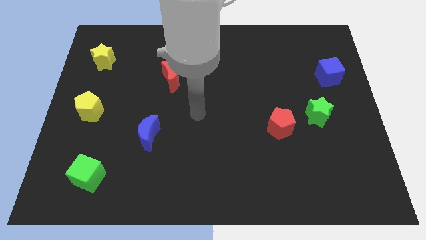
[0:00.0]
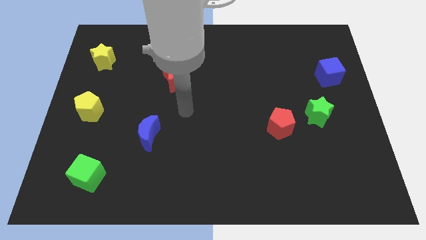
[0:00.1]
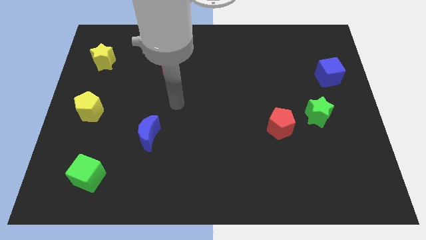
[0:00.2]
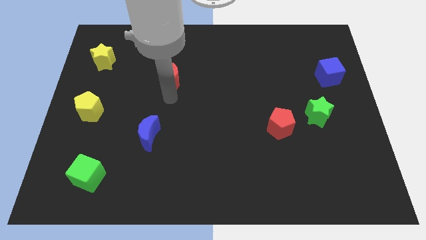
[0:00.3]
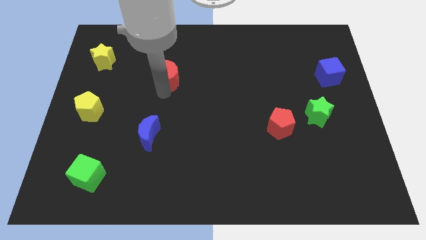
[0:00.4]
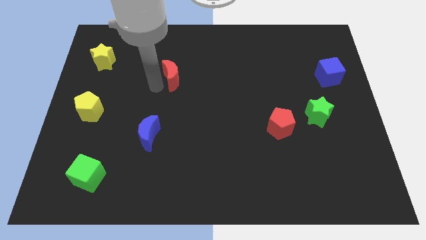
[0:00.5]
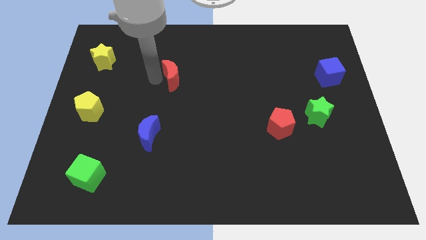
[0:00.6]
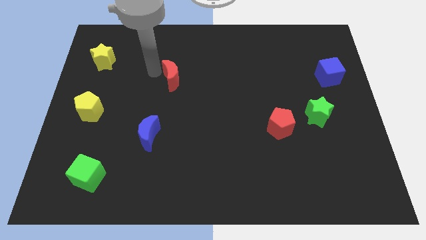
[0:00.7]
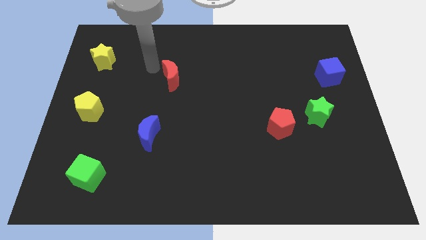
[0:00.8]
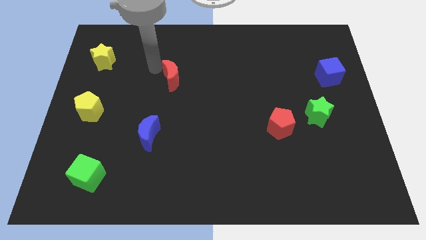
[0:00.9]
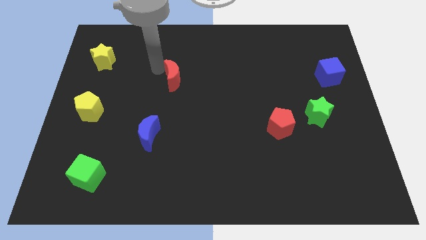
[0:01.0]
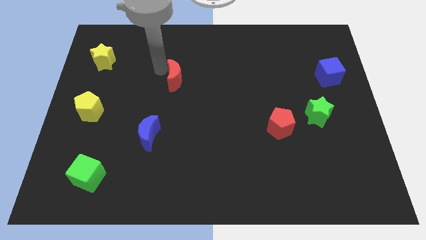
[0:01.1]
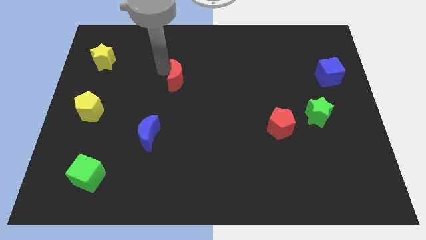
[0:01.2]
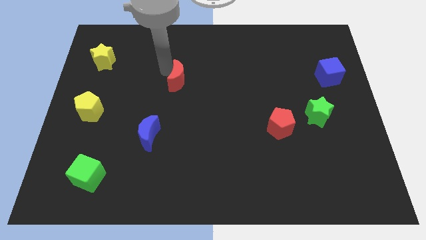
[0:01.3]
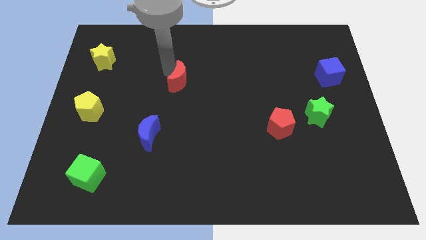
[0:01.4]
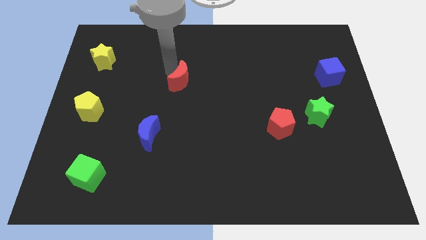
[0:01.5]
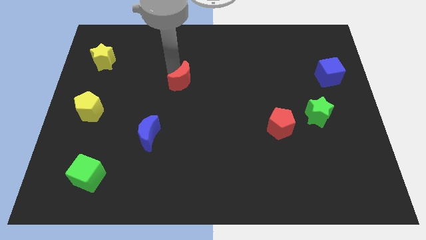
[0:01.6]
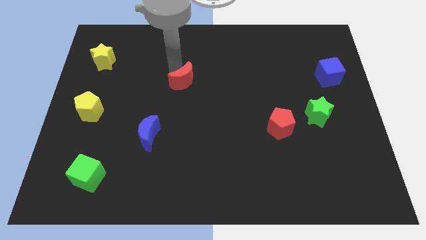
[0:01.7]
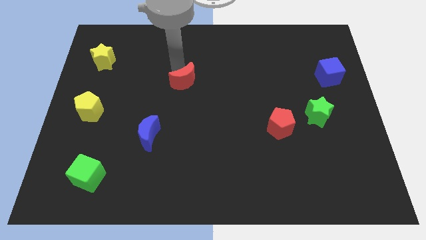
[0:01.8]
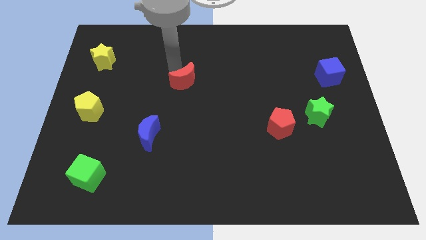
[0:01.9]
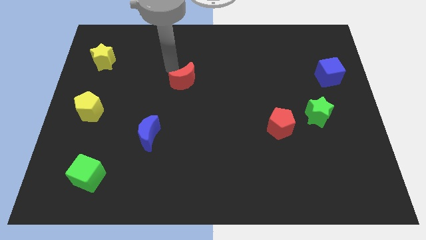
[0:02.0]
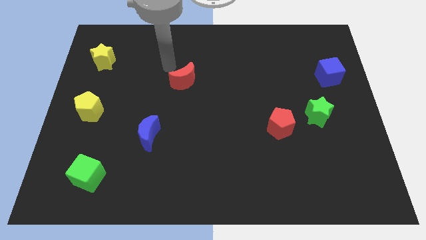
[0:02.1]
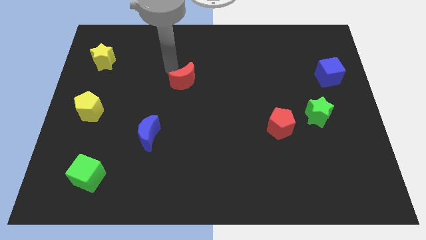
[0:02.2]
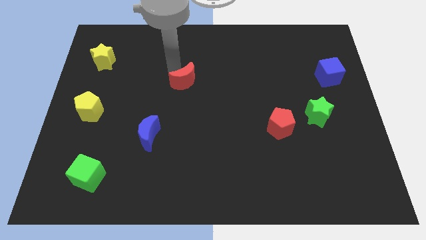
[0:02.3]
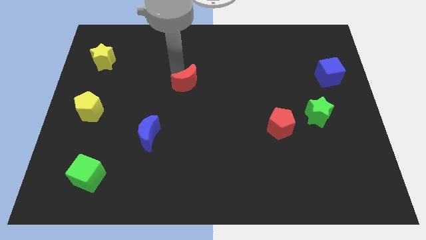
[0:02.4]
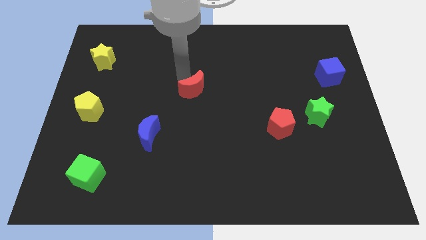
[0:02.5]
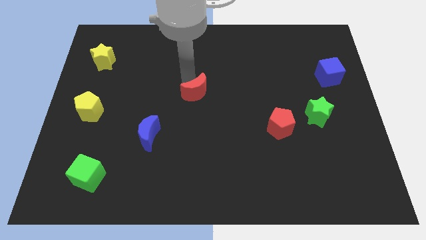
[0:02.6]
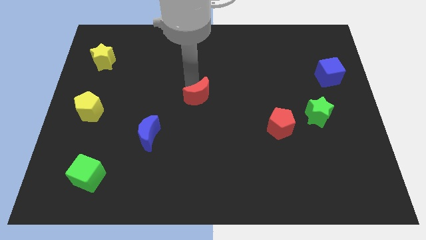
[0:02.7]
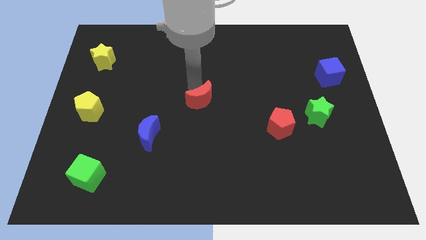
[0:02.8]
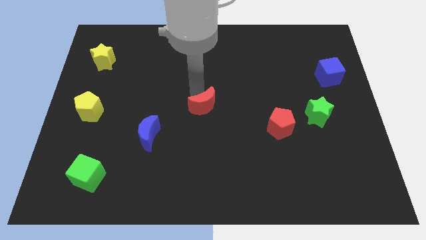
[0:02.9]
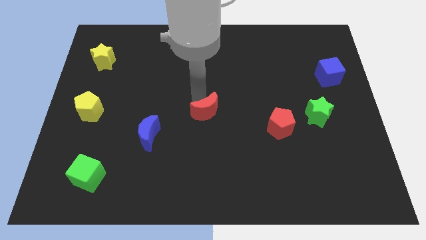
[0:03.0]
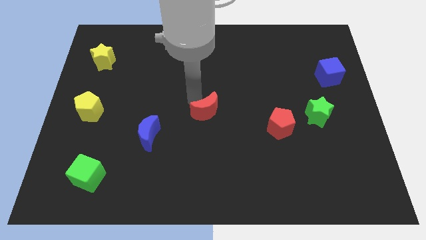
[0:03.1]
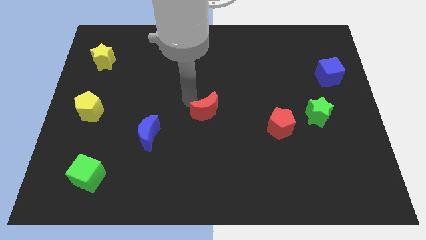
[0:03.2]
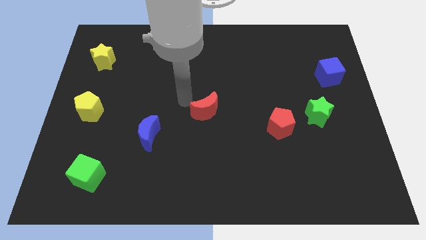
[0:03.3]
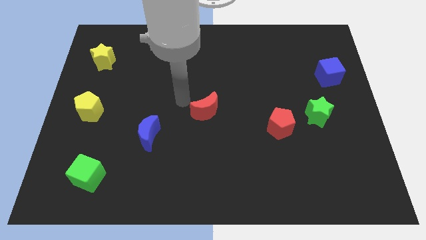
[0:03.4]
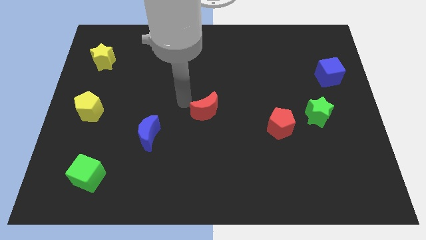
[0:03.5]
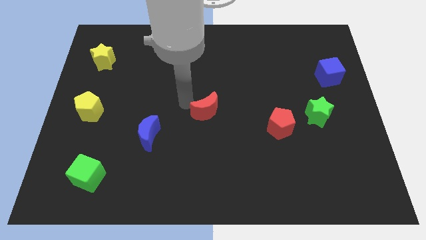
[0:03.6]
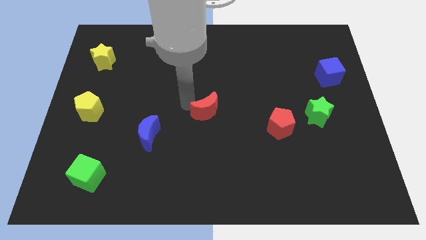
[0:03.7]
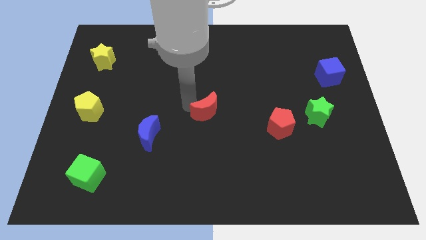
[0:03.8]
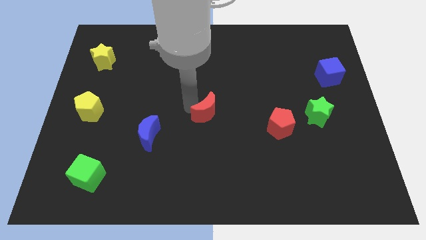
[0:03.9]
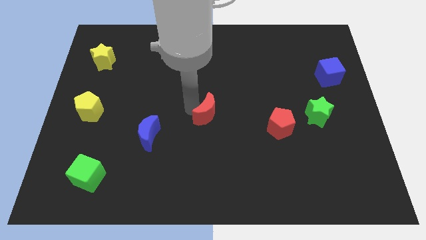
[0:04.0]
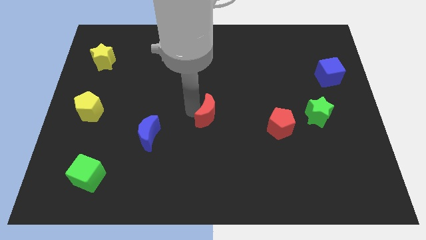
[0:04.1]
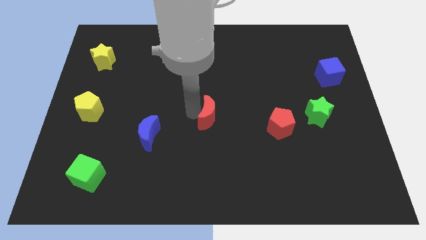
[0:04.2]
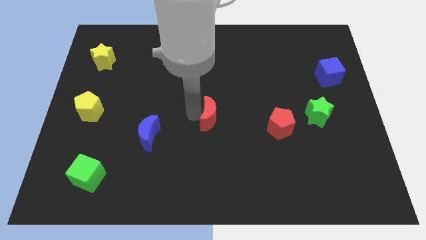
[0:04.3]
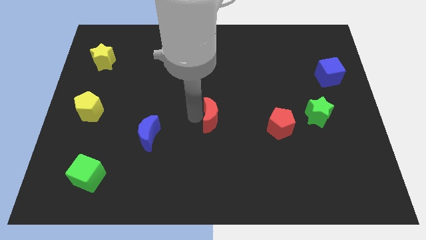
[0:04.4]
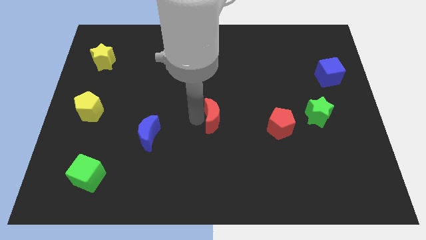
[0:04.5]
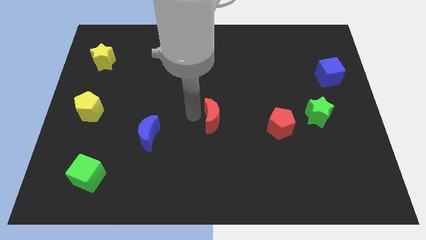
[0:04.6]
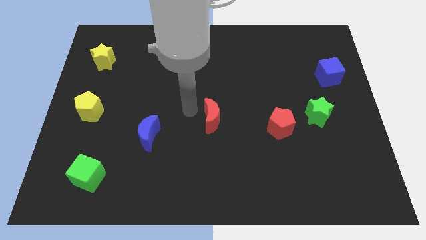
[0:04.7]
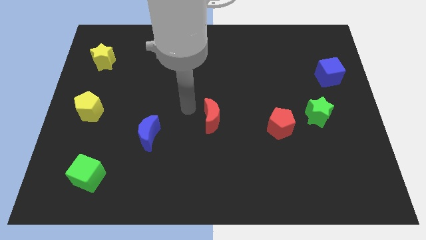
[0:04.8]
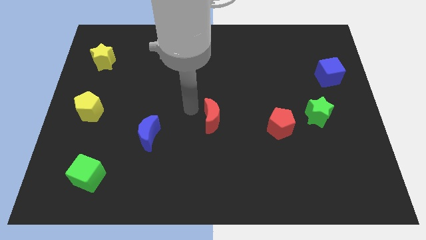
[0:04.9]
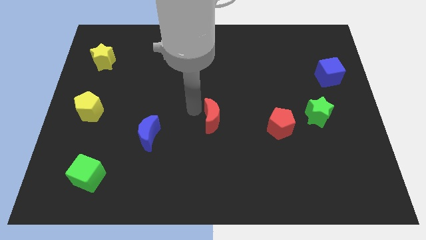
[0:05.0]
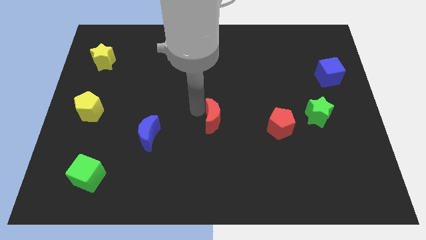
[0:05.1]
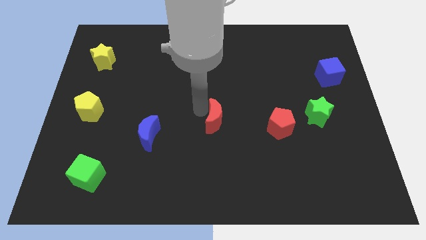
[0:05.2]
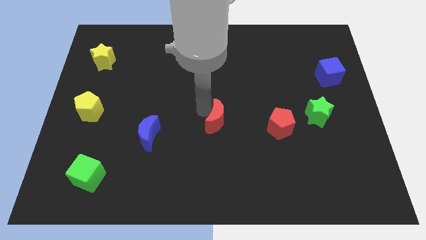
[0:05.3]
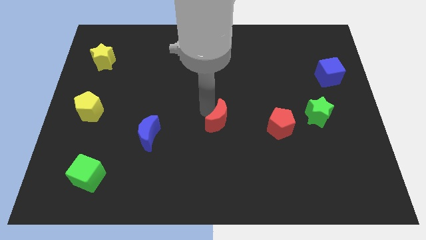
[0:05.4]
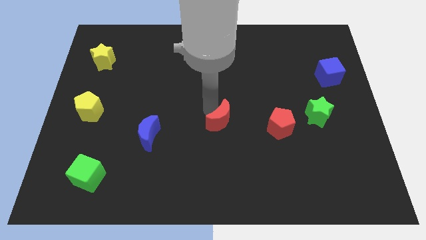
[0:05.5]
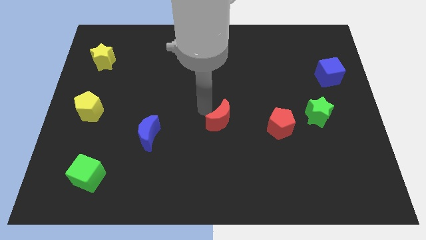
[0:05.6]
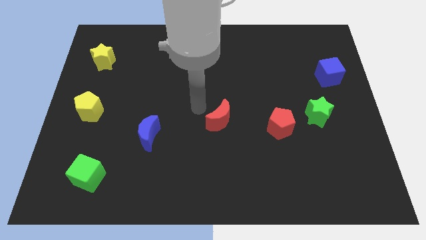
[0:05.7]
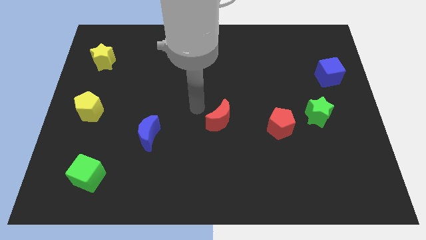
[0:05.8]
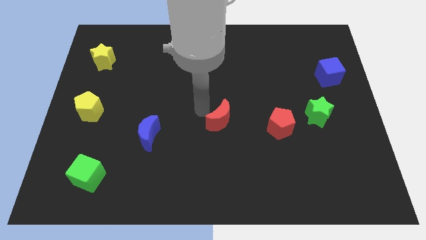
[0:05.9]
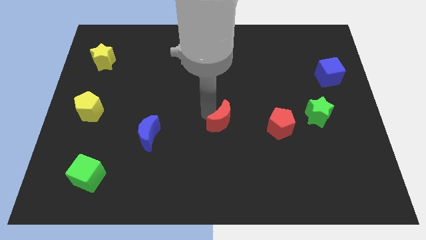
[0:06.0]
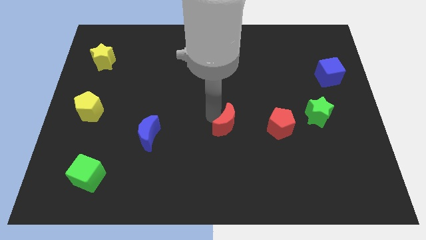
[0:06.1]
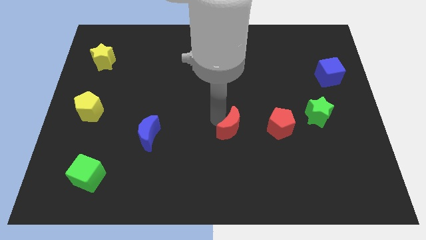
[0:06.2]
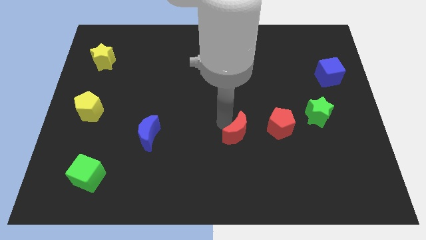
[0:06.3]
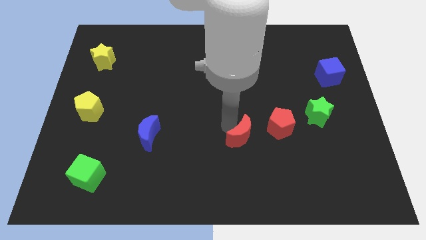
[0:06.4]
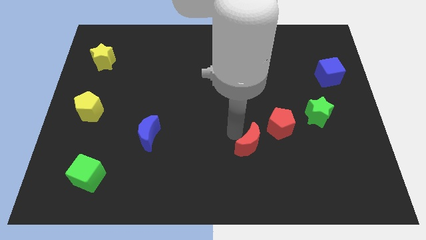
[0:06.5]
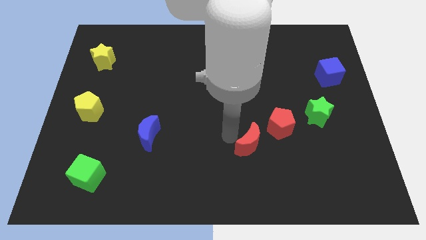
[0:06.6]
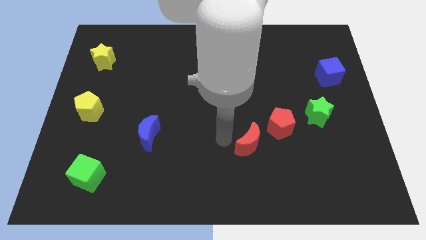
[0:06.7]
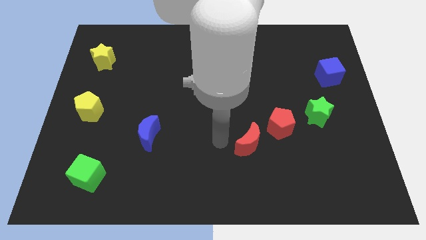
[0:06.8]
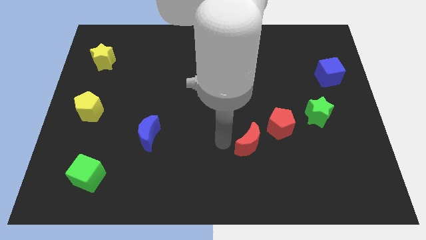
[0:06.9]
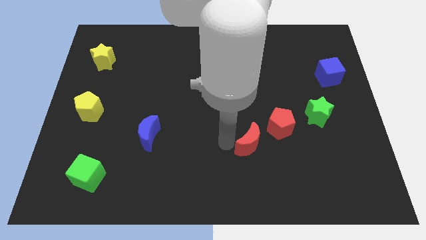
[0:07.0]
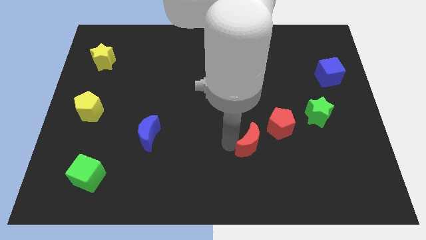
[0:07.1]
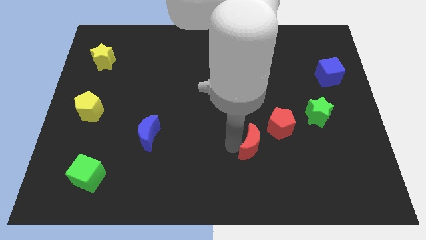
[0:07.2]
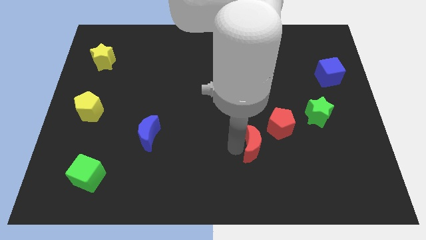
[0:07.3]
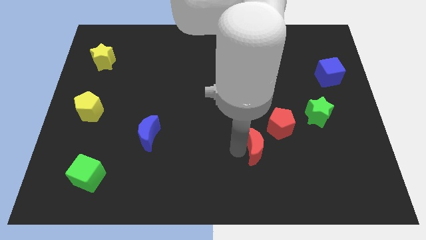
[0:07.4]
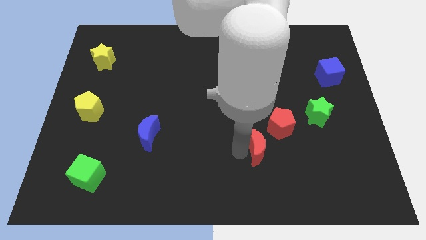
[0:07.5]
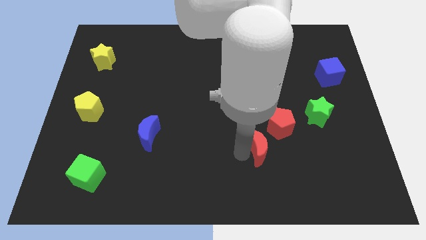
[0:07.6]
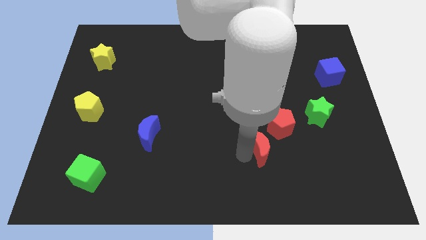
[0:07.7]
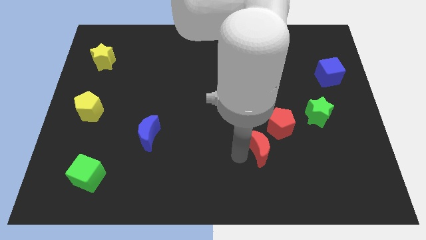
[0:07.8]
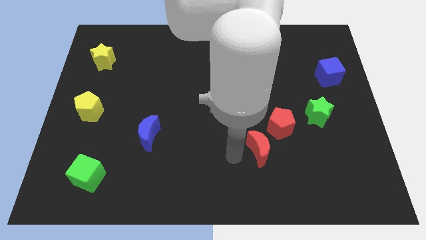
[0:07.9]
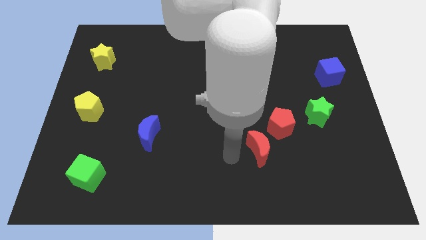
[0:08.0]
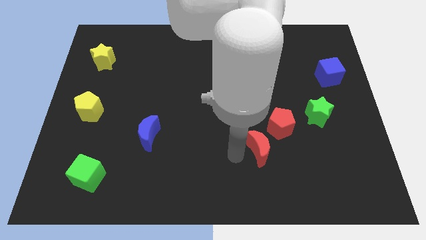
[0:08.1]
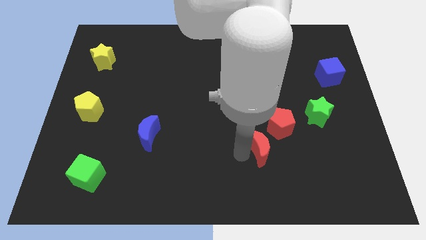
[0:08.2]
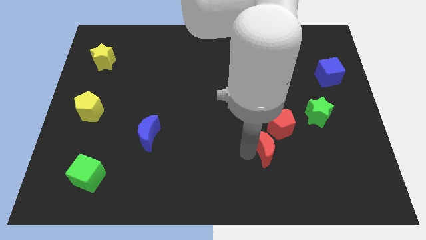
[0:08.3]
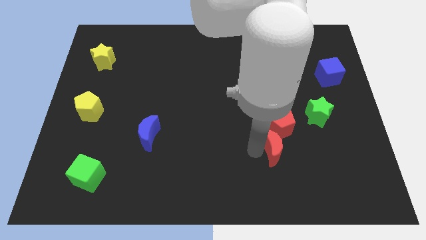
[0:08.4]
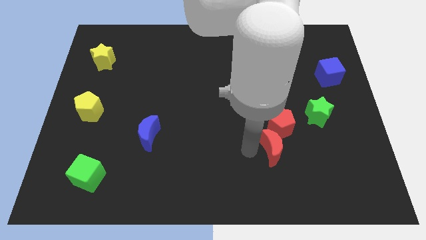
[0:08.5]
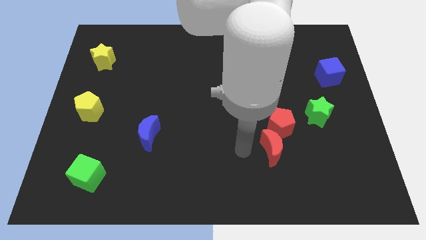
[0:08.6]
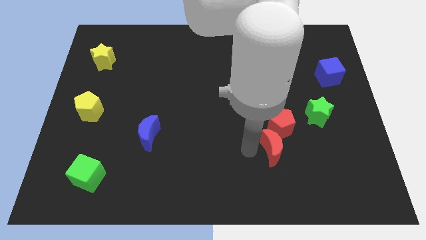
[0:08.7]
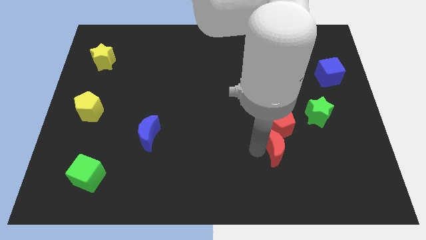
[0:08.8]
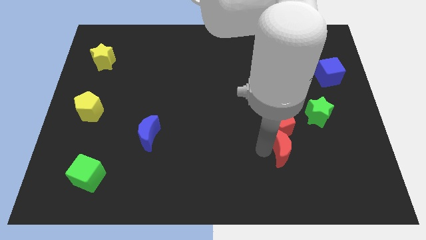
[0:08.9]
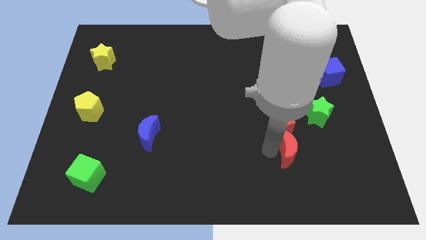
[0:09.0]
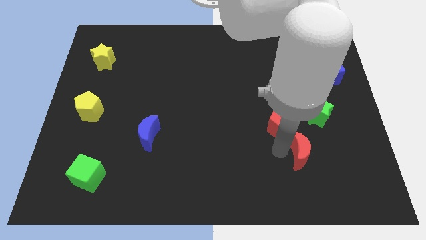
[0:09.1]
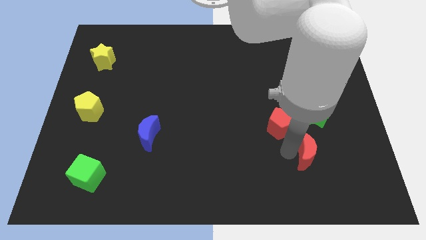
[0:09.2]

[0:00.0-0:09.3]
push the red moon to the bottom side of the green star
